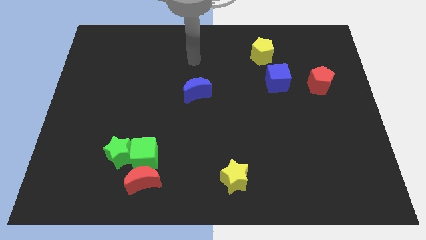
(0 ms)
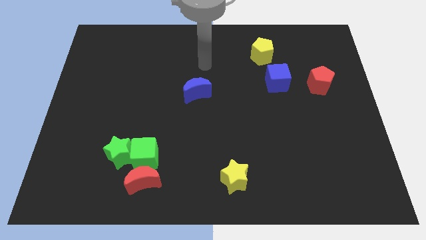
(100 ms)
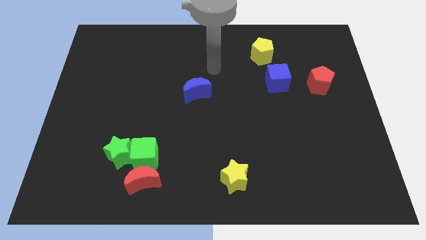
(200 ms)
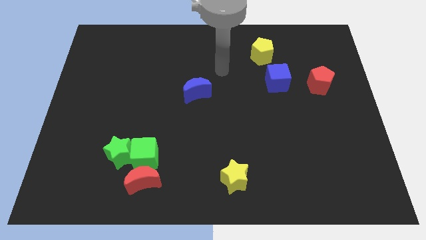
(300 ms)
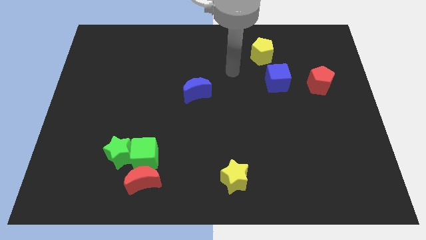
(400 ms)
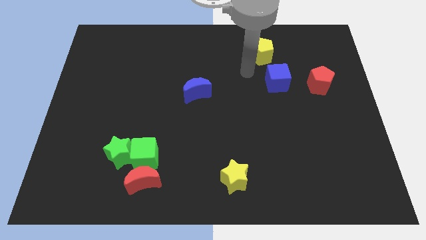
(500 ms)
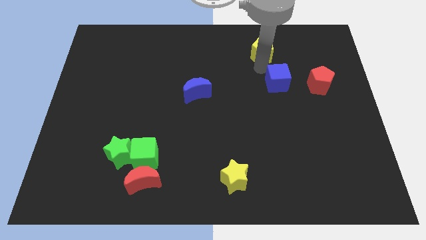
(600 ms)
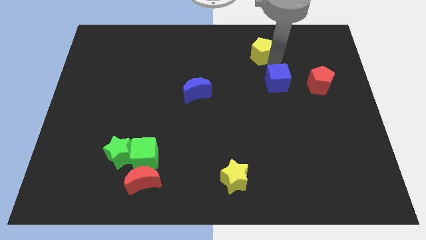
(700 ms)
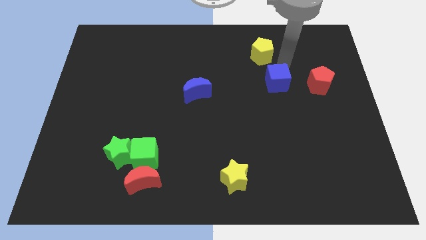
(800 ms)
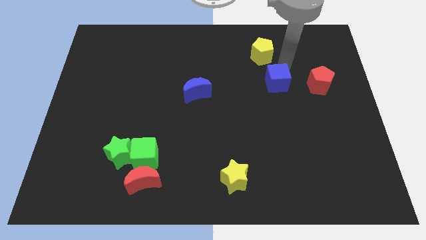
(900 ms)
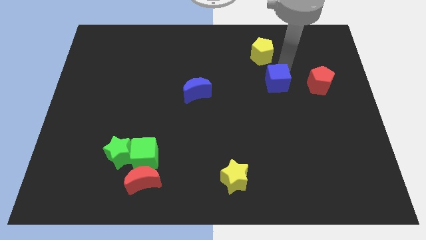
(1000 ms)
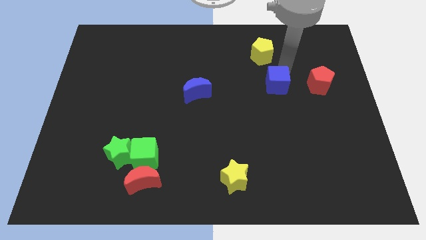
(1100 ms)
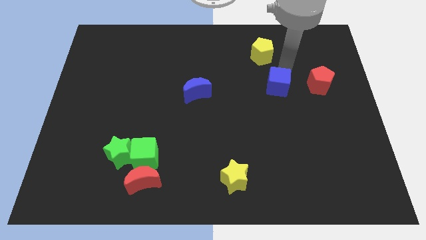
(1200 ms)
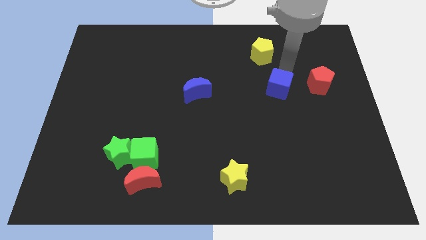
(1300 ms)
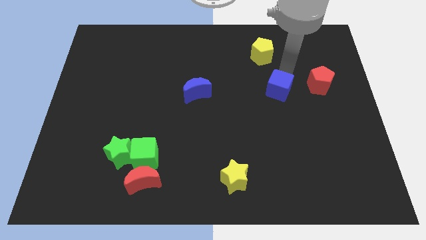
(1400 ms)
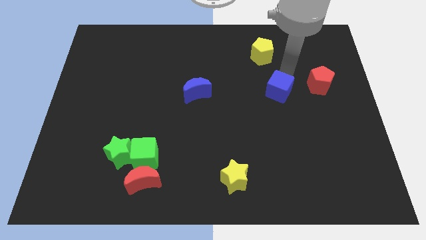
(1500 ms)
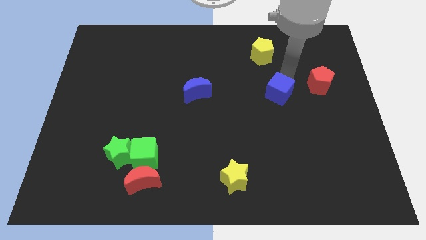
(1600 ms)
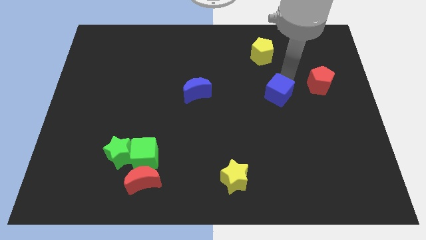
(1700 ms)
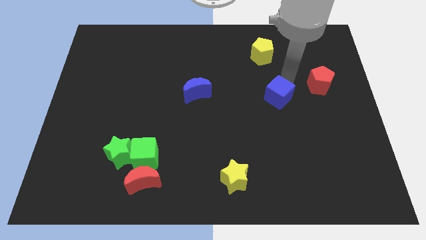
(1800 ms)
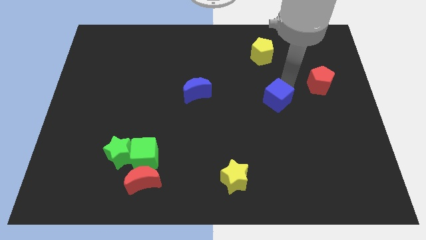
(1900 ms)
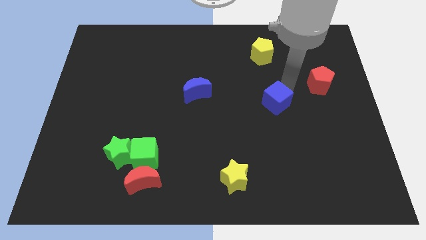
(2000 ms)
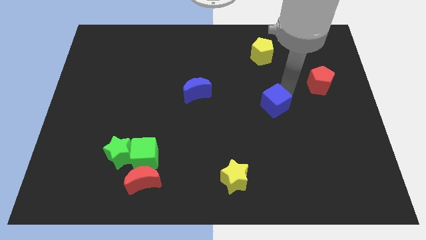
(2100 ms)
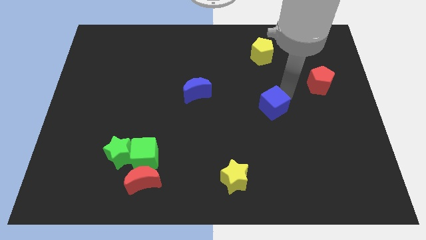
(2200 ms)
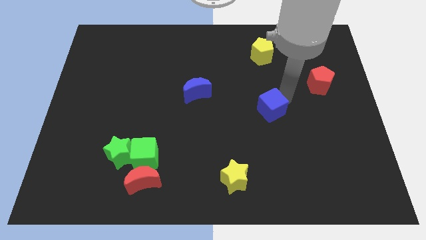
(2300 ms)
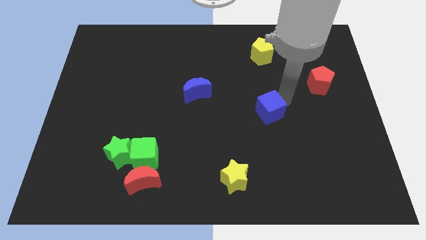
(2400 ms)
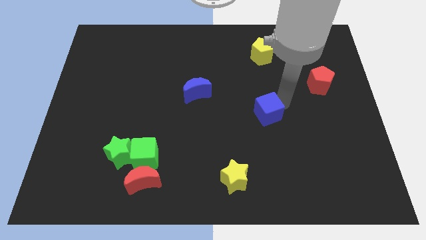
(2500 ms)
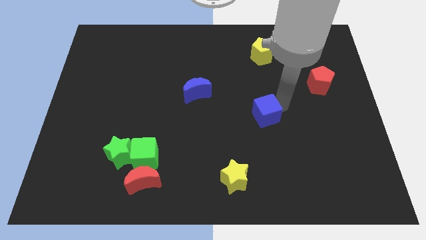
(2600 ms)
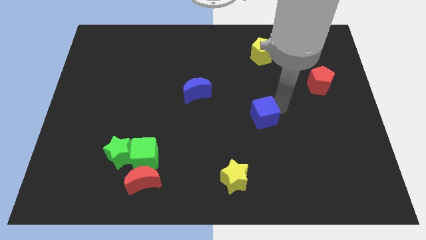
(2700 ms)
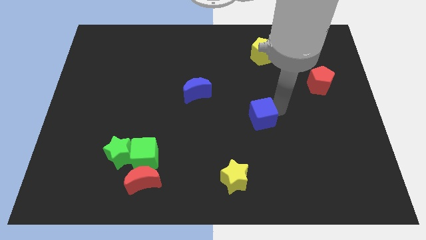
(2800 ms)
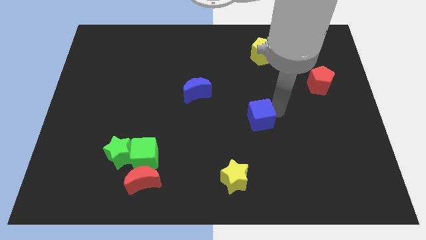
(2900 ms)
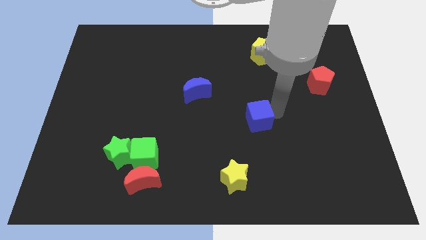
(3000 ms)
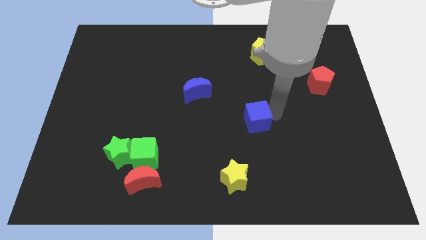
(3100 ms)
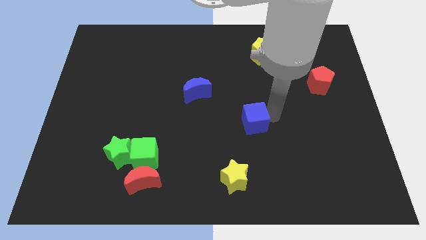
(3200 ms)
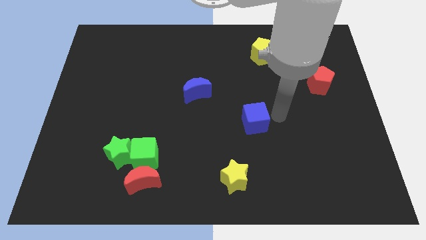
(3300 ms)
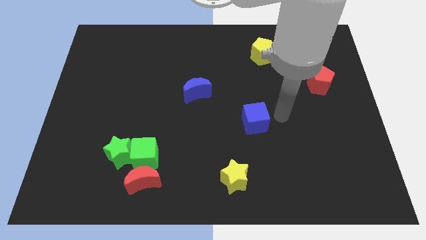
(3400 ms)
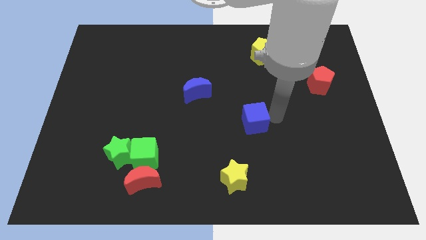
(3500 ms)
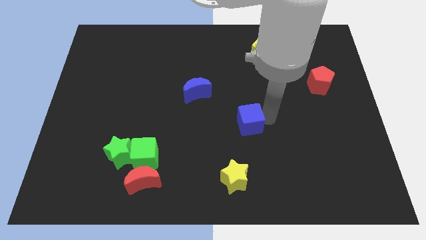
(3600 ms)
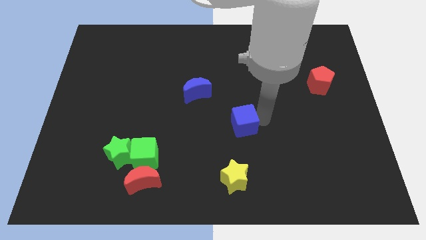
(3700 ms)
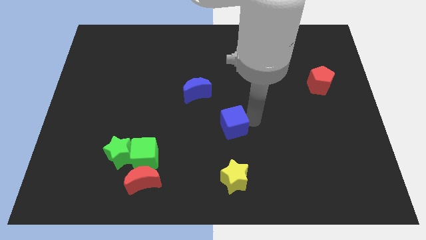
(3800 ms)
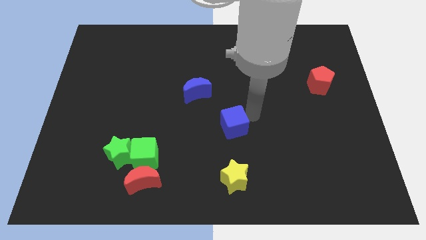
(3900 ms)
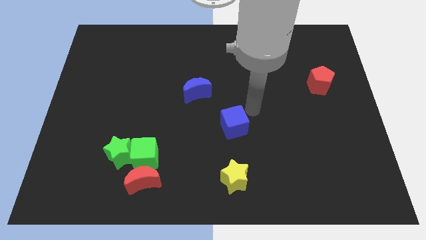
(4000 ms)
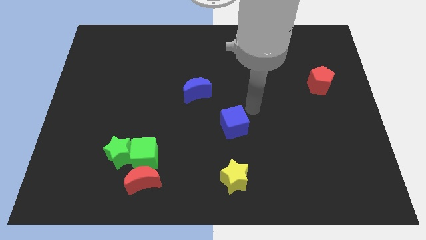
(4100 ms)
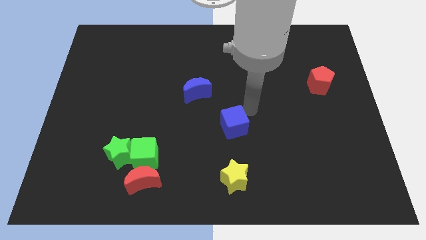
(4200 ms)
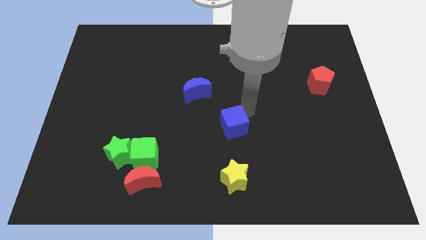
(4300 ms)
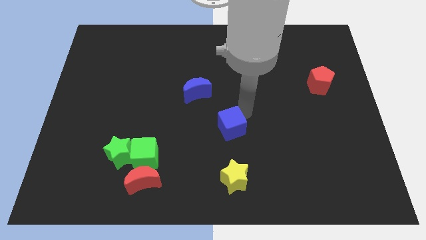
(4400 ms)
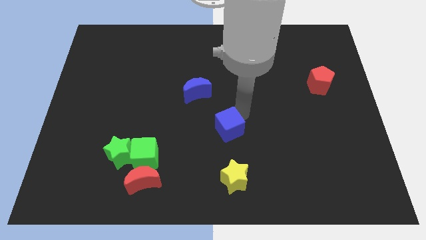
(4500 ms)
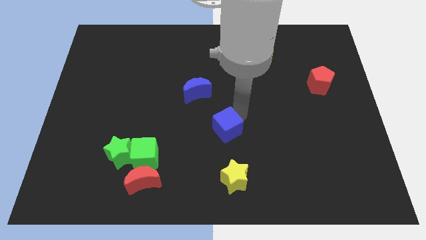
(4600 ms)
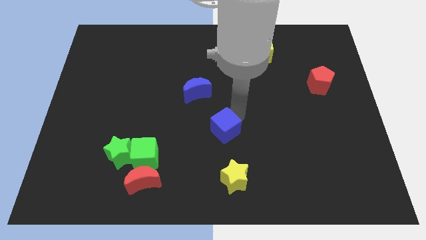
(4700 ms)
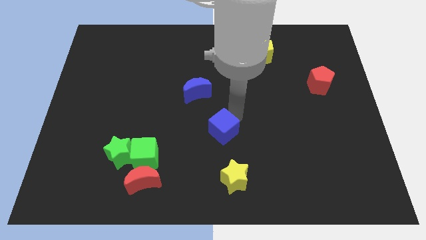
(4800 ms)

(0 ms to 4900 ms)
slide the blue cube diagonally downwards and left

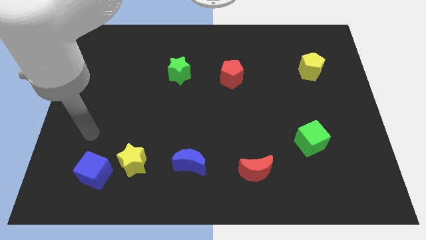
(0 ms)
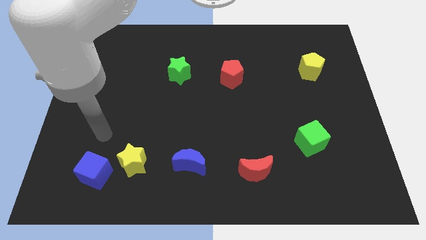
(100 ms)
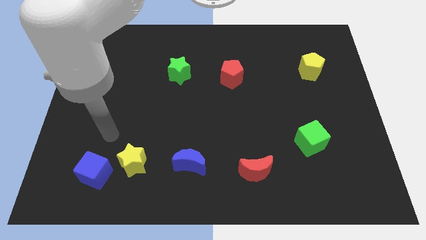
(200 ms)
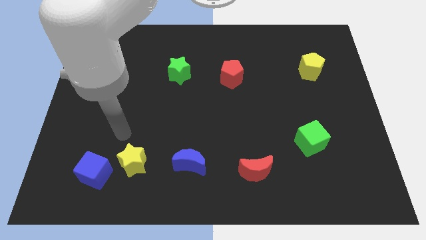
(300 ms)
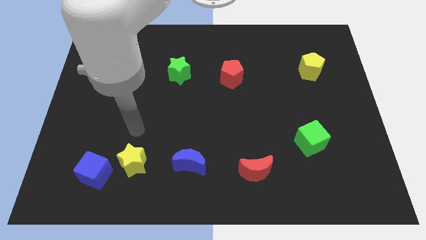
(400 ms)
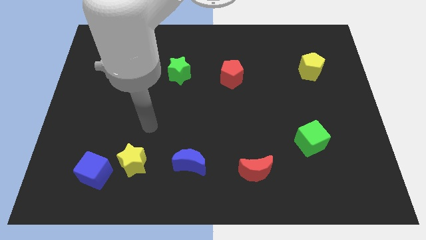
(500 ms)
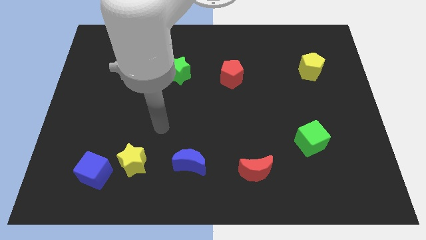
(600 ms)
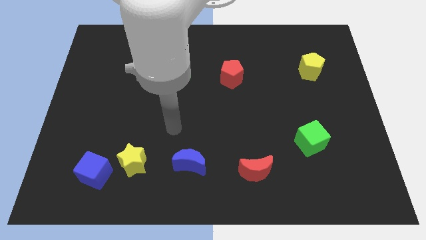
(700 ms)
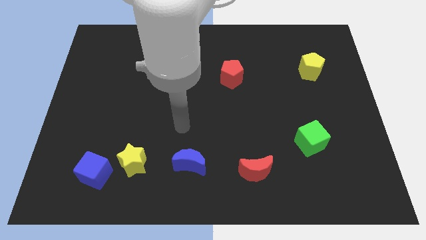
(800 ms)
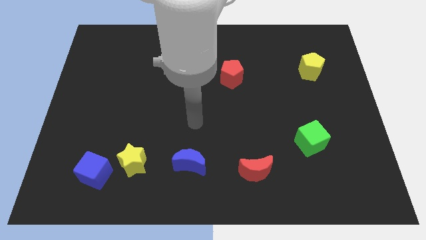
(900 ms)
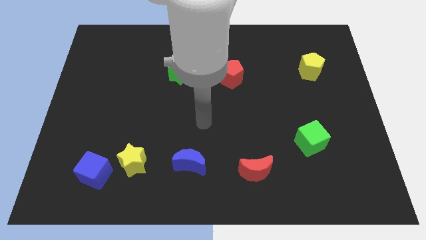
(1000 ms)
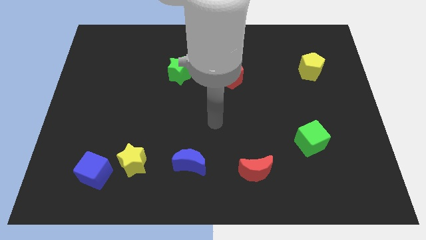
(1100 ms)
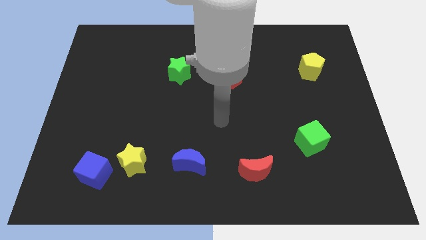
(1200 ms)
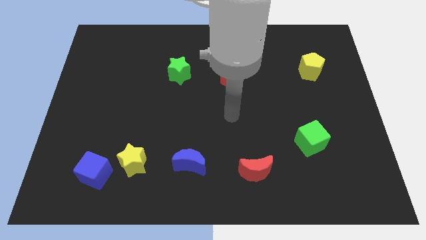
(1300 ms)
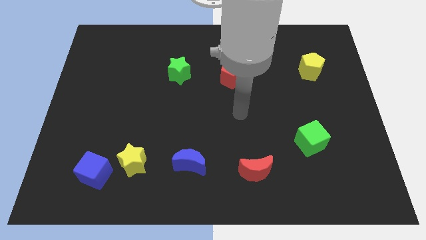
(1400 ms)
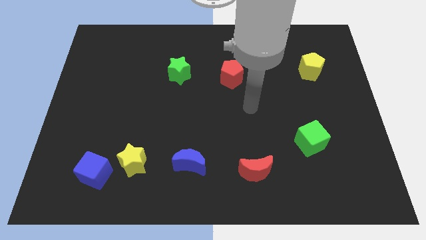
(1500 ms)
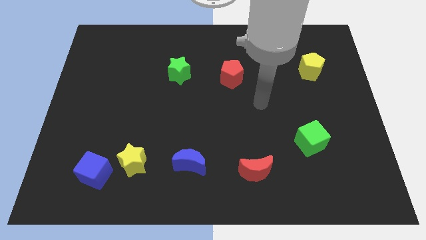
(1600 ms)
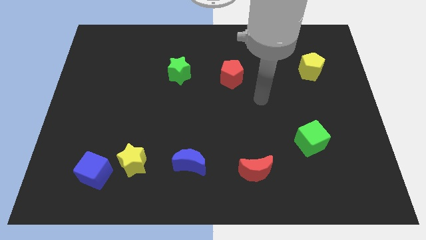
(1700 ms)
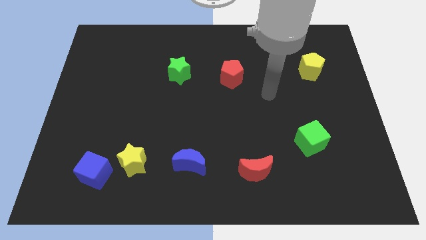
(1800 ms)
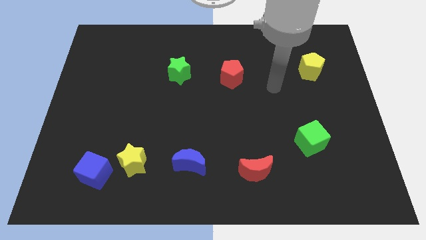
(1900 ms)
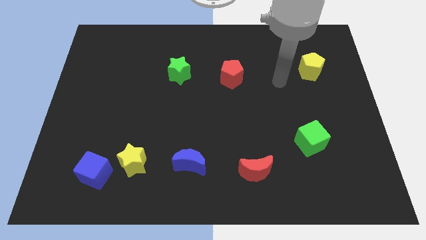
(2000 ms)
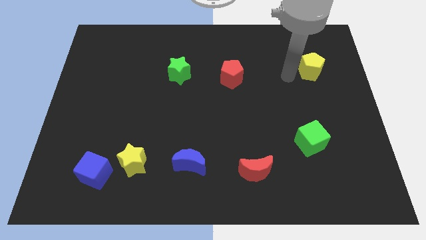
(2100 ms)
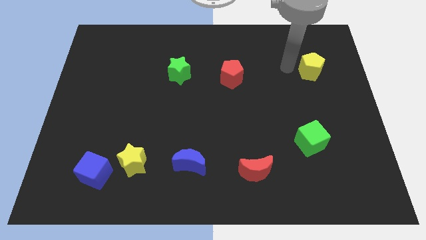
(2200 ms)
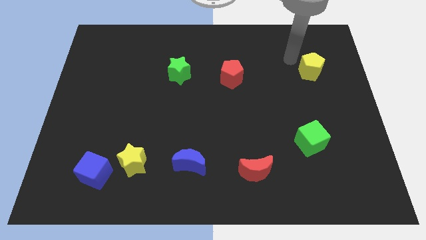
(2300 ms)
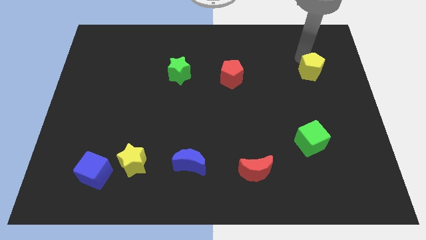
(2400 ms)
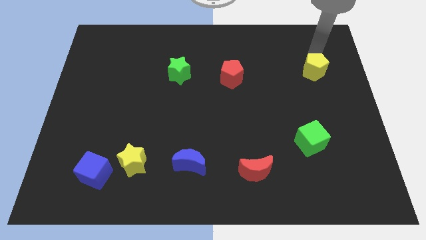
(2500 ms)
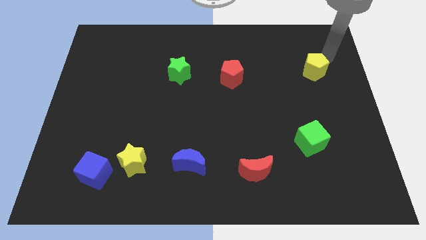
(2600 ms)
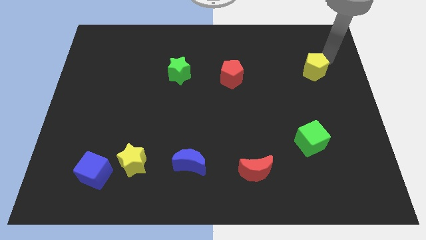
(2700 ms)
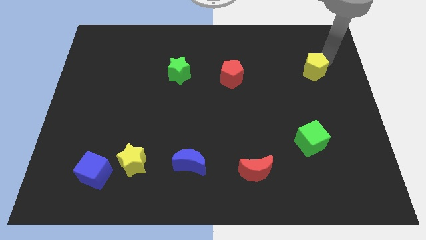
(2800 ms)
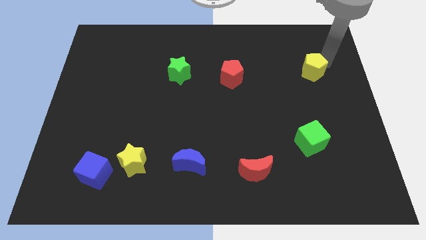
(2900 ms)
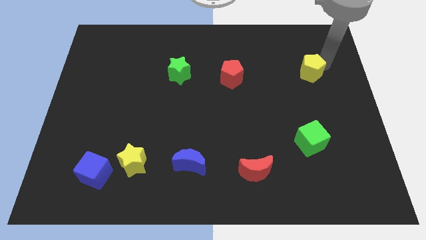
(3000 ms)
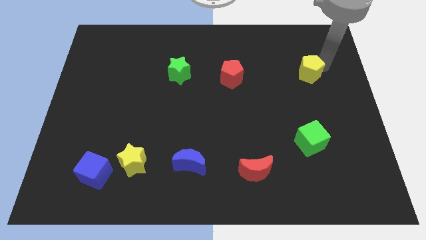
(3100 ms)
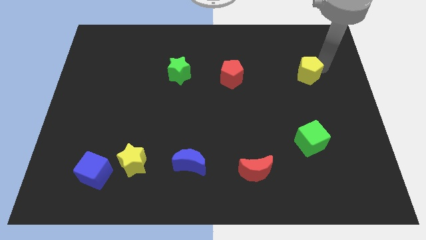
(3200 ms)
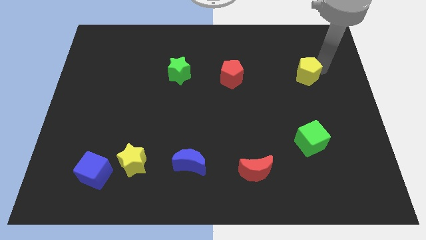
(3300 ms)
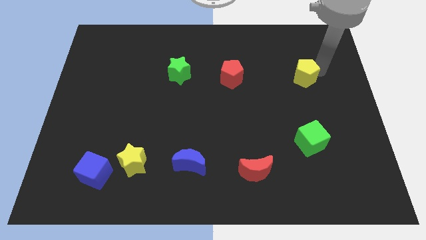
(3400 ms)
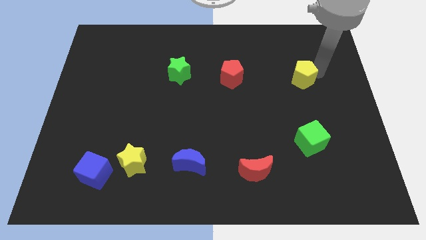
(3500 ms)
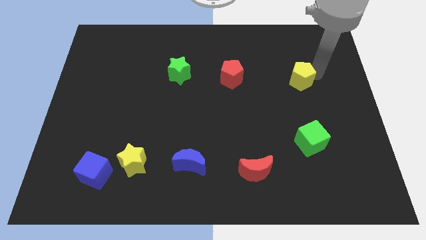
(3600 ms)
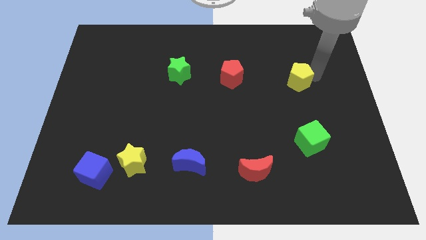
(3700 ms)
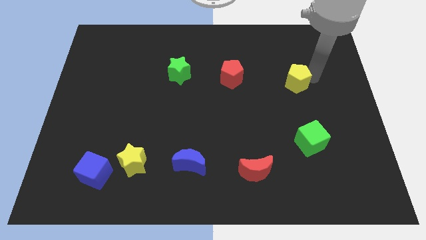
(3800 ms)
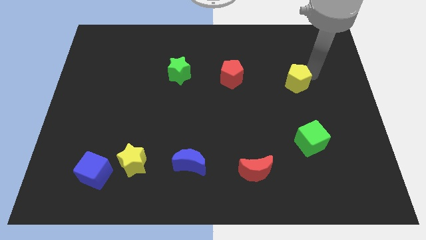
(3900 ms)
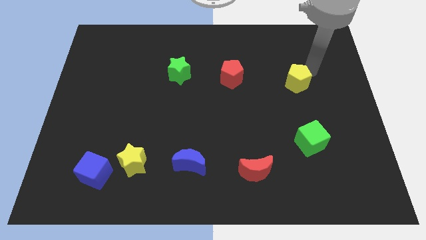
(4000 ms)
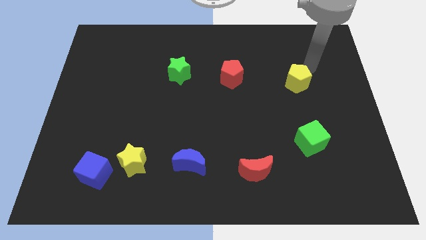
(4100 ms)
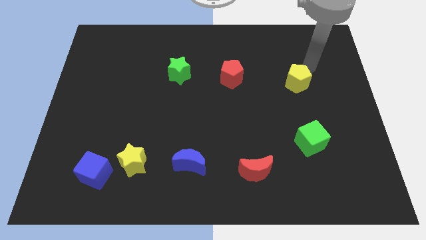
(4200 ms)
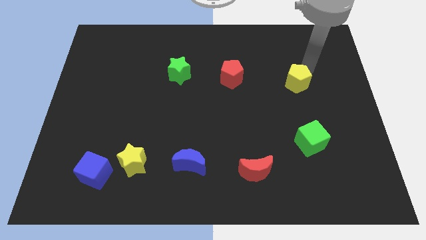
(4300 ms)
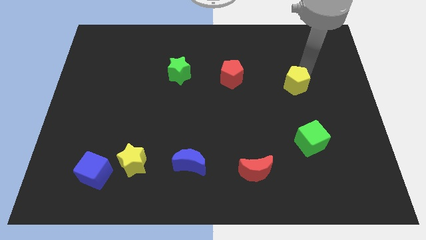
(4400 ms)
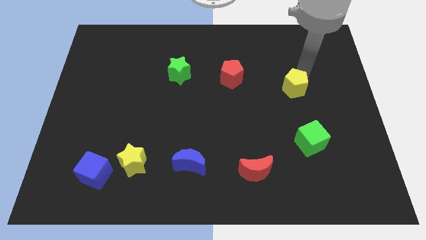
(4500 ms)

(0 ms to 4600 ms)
move the yellow pentagon down and then to the left a bit
